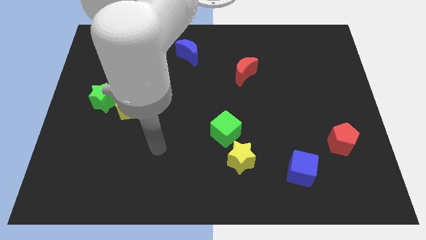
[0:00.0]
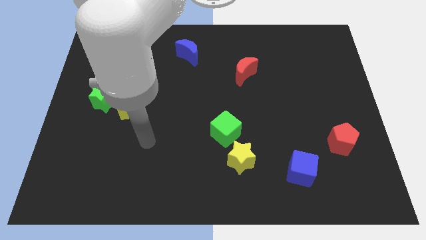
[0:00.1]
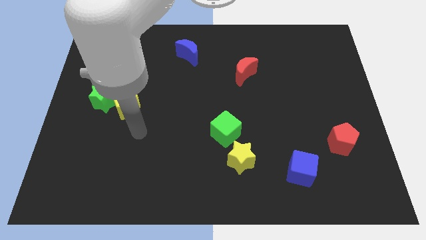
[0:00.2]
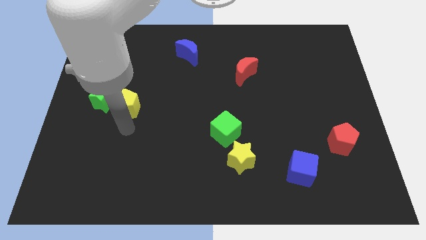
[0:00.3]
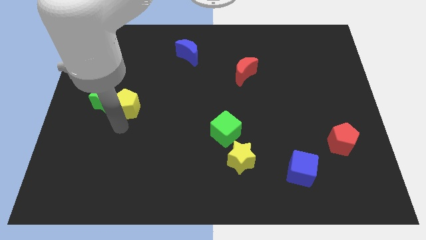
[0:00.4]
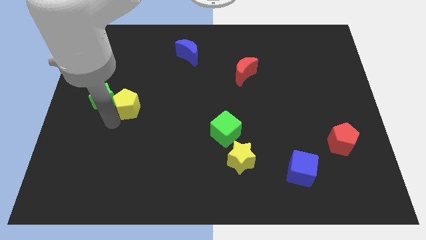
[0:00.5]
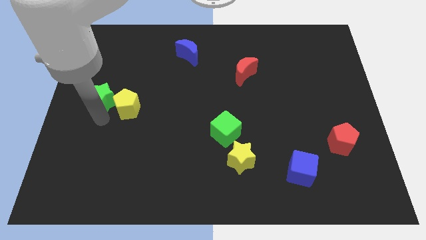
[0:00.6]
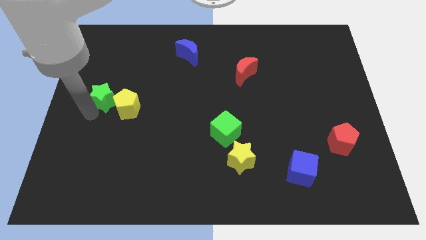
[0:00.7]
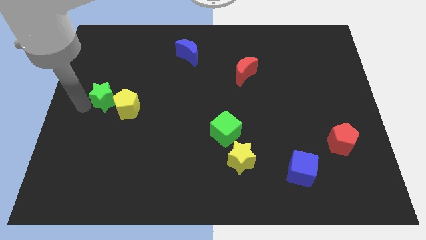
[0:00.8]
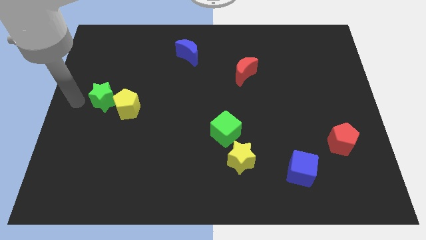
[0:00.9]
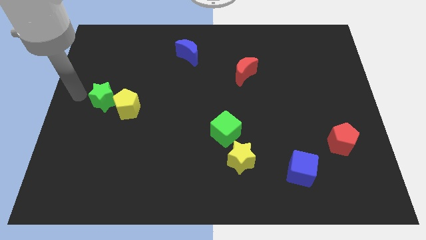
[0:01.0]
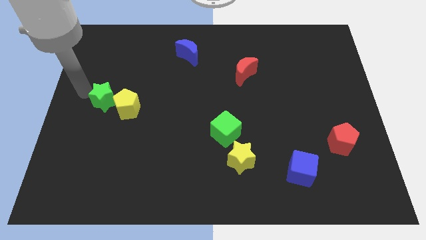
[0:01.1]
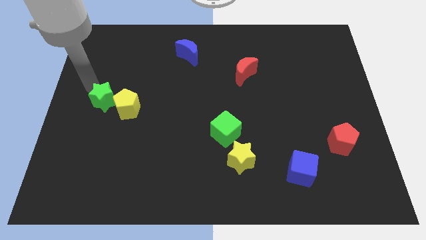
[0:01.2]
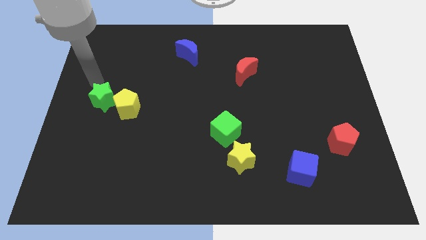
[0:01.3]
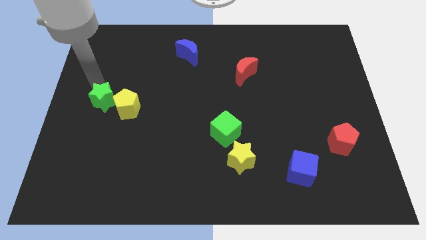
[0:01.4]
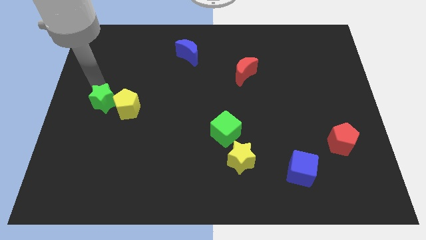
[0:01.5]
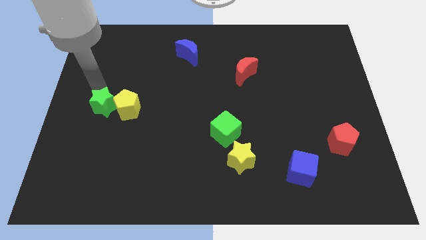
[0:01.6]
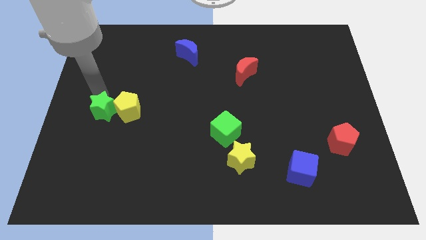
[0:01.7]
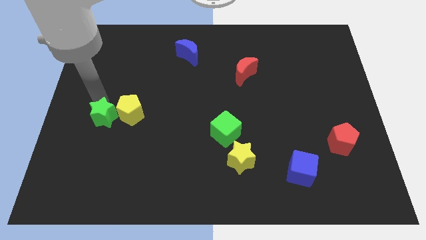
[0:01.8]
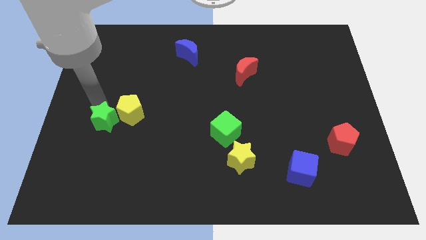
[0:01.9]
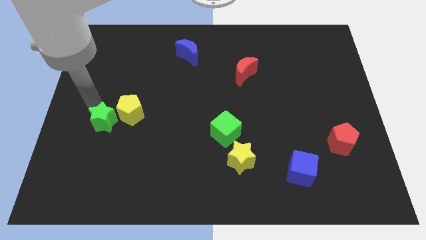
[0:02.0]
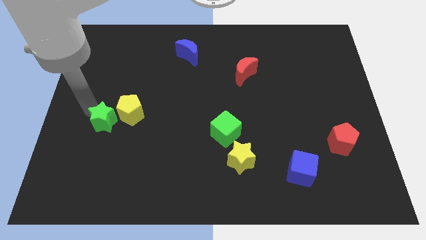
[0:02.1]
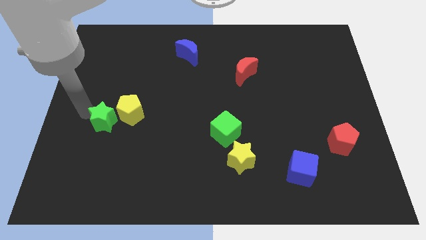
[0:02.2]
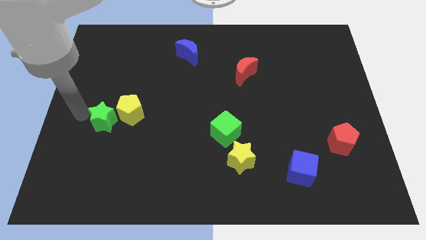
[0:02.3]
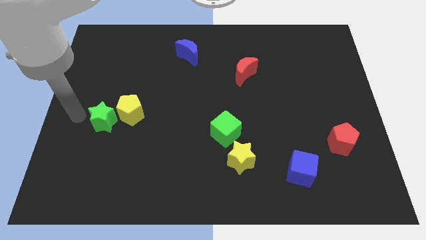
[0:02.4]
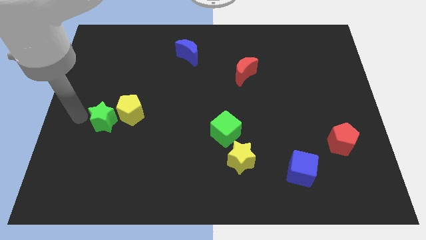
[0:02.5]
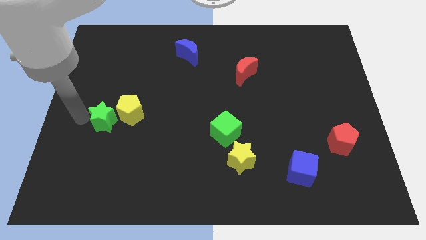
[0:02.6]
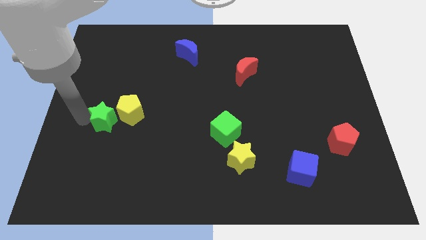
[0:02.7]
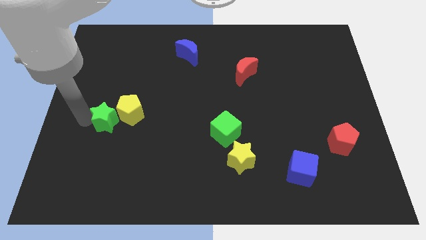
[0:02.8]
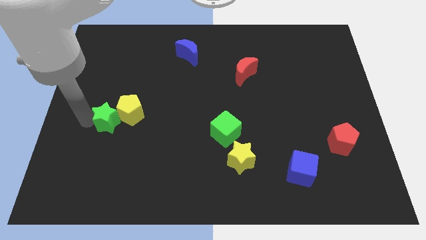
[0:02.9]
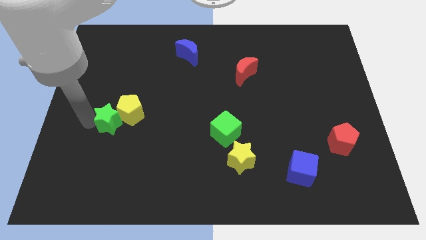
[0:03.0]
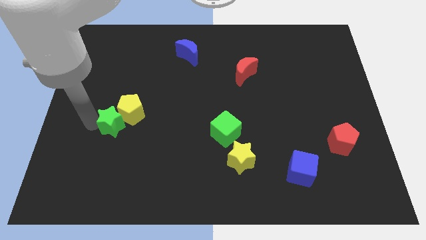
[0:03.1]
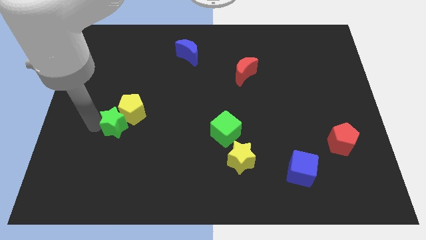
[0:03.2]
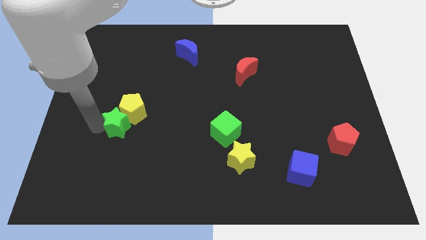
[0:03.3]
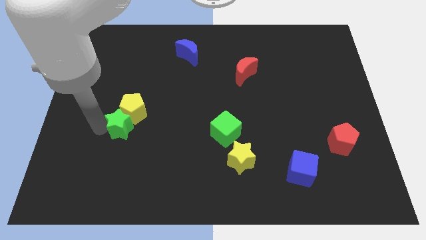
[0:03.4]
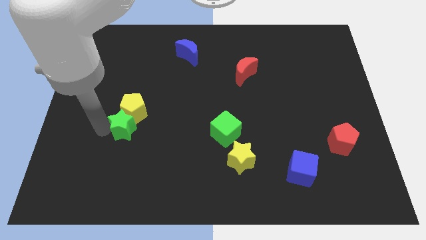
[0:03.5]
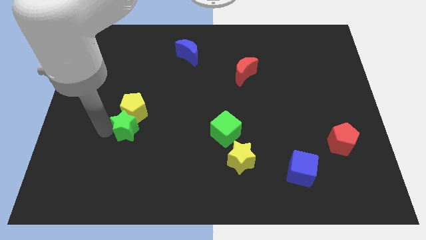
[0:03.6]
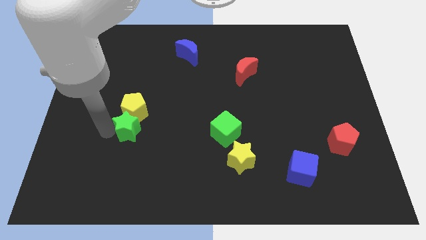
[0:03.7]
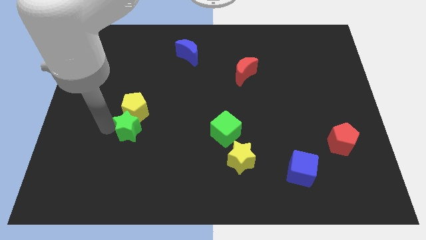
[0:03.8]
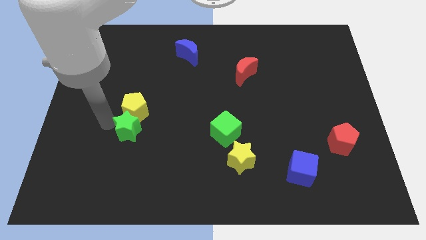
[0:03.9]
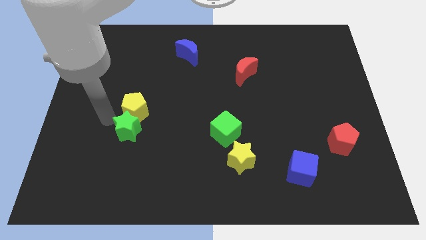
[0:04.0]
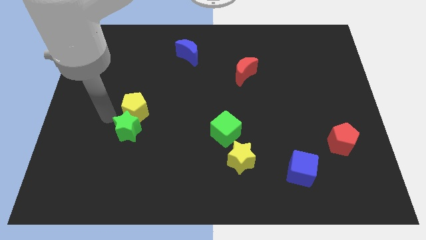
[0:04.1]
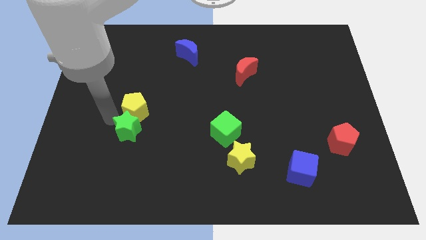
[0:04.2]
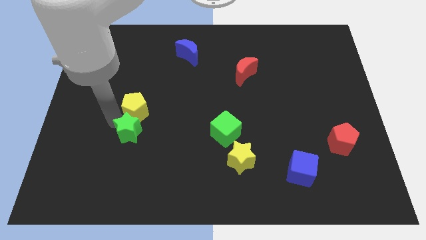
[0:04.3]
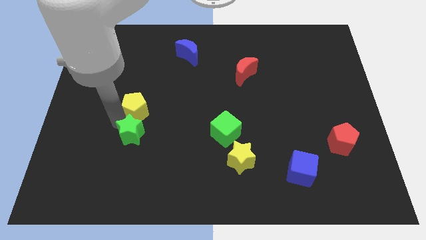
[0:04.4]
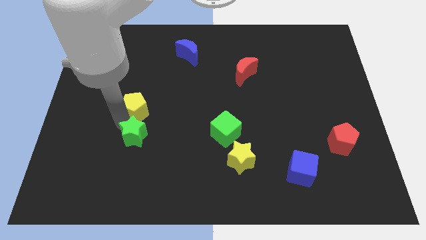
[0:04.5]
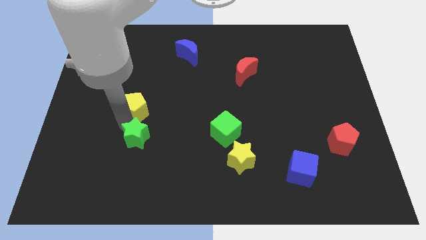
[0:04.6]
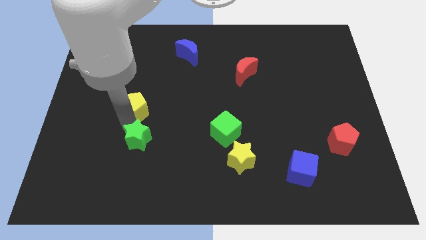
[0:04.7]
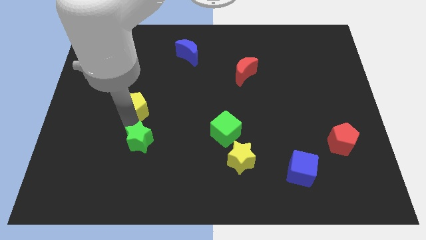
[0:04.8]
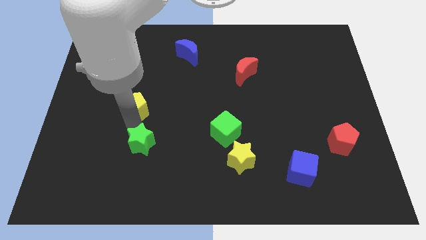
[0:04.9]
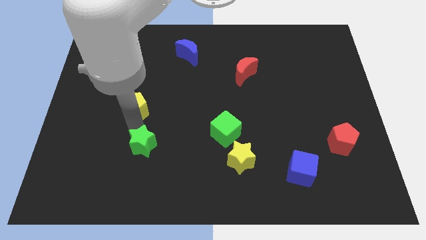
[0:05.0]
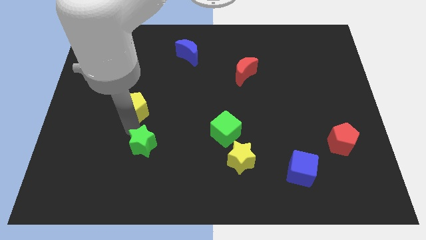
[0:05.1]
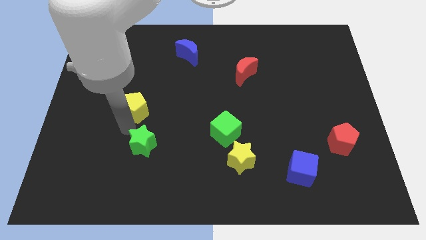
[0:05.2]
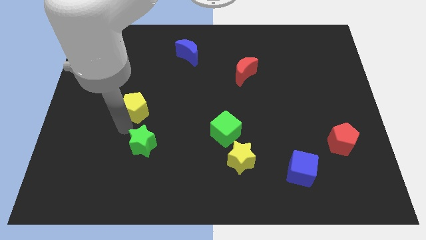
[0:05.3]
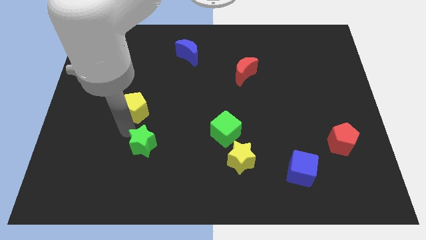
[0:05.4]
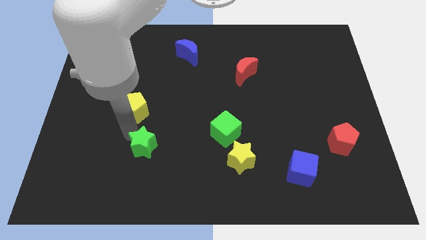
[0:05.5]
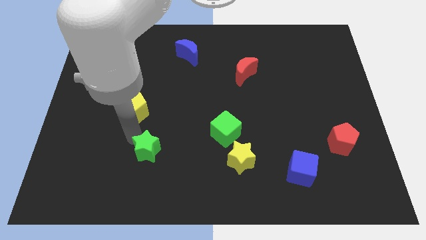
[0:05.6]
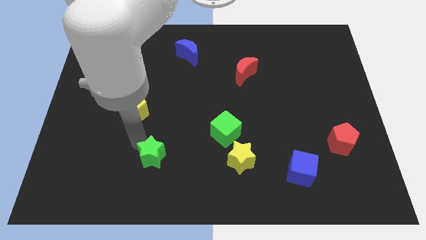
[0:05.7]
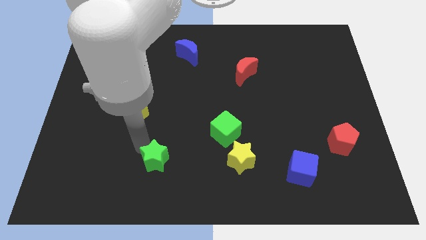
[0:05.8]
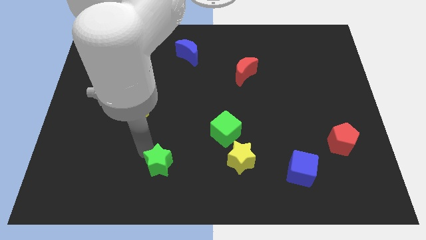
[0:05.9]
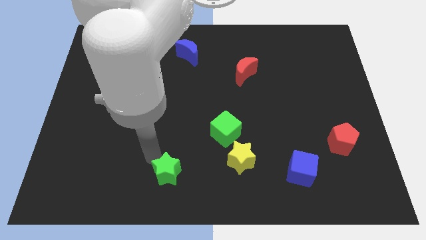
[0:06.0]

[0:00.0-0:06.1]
move the green star to the bottom
